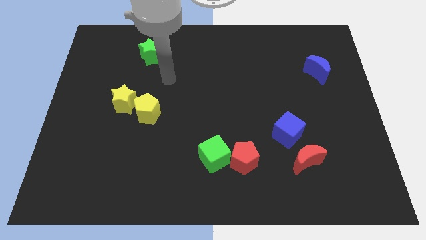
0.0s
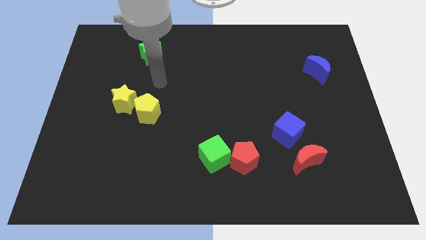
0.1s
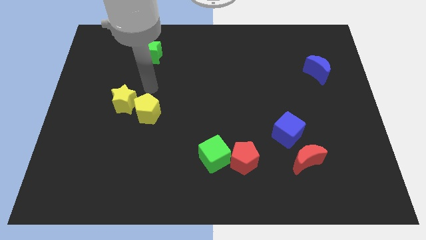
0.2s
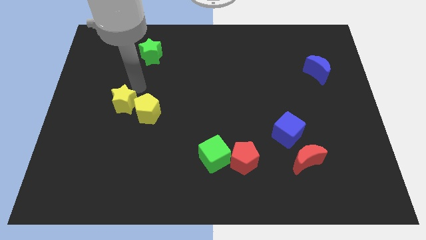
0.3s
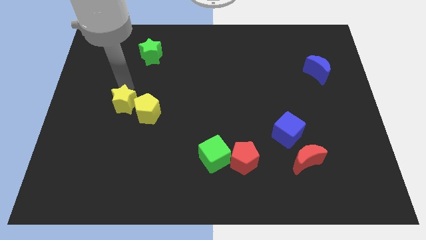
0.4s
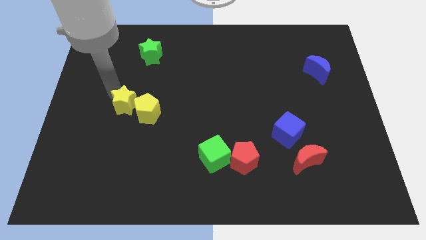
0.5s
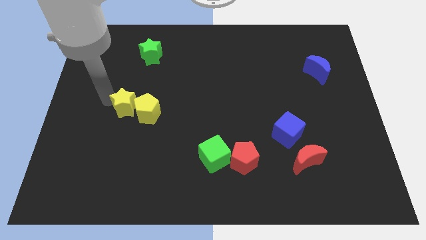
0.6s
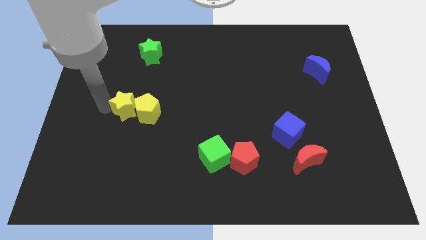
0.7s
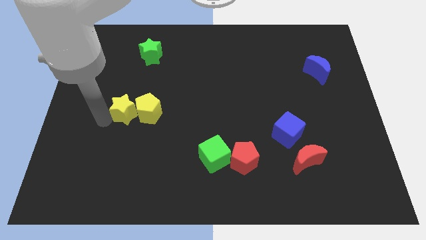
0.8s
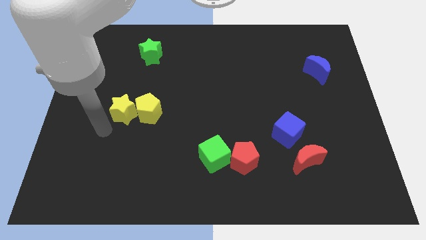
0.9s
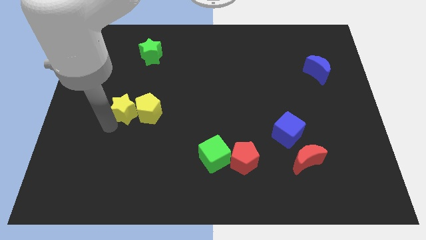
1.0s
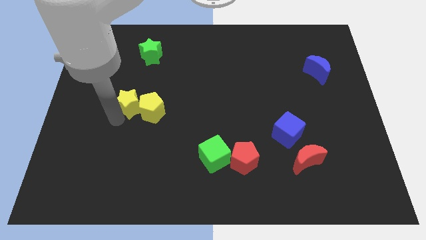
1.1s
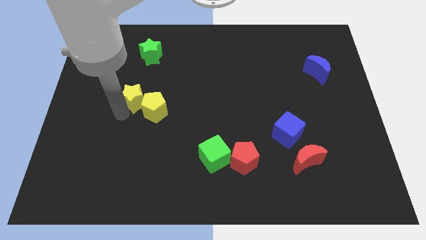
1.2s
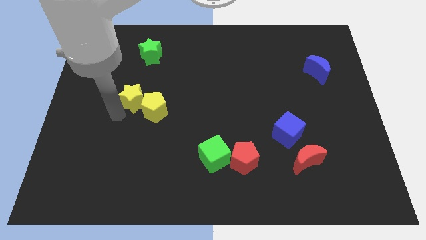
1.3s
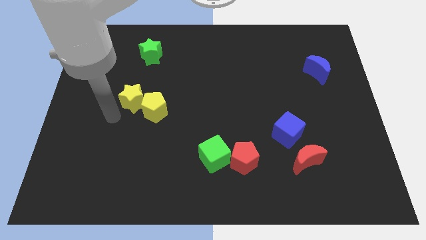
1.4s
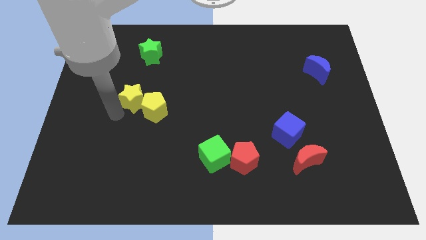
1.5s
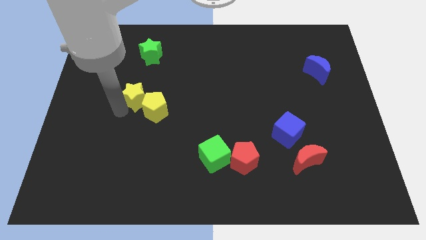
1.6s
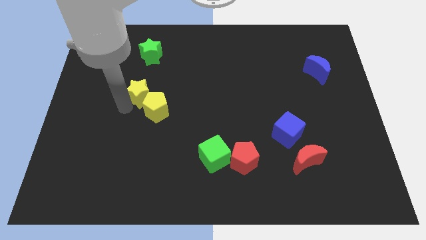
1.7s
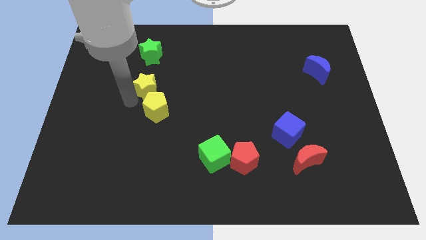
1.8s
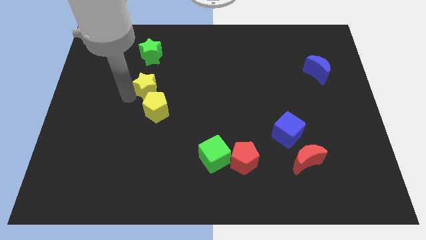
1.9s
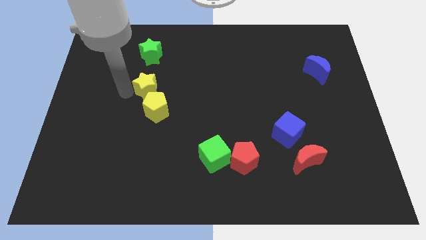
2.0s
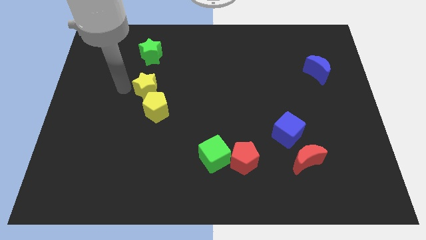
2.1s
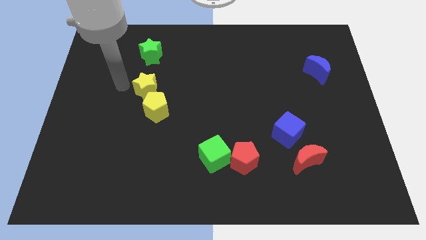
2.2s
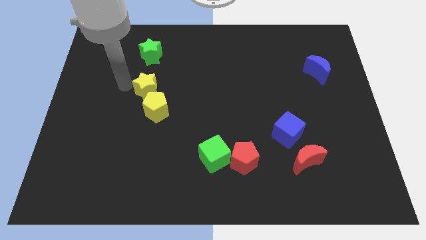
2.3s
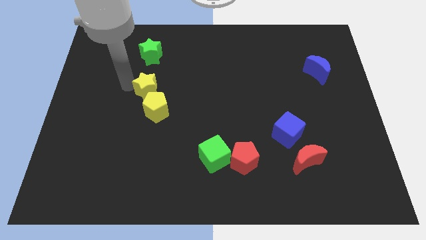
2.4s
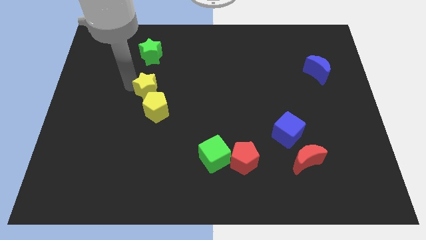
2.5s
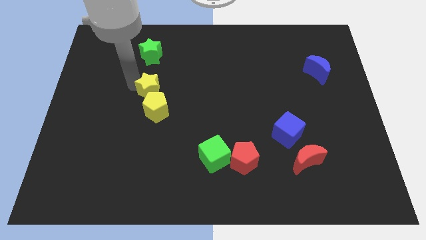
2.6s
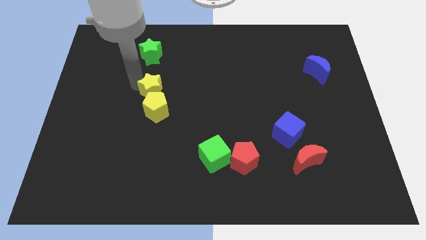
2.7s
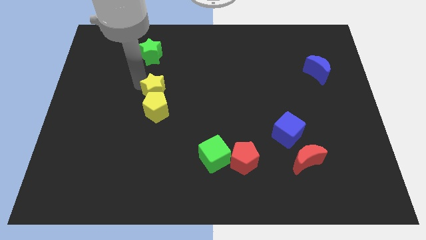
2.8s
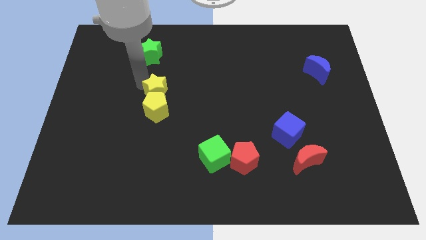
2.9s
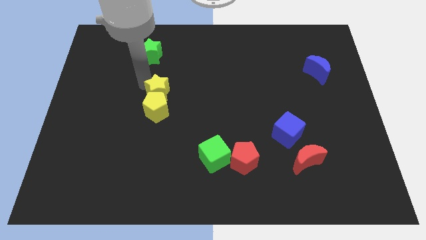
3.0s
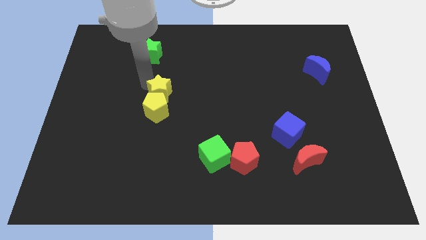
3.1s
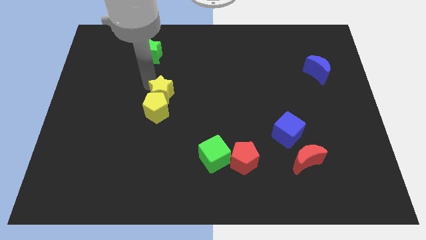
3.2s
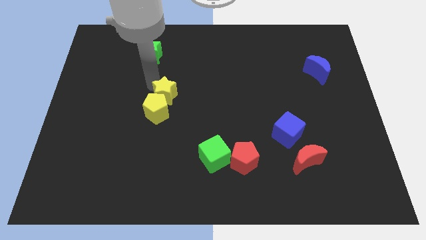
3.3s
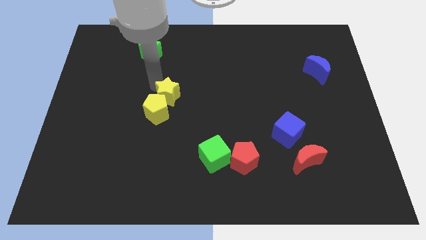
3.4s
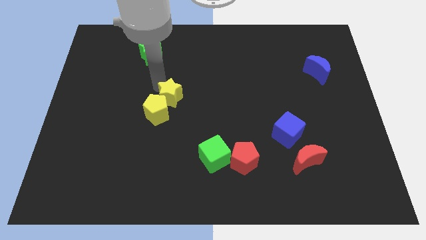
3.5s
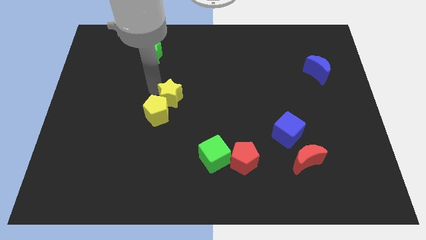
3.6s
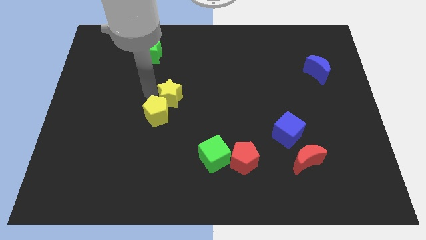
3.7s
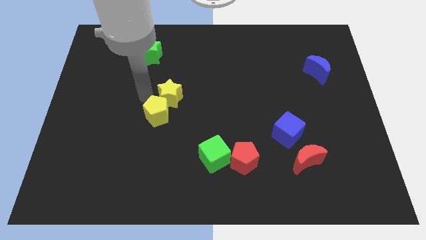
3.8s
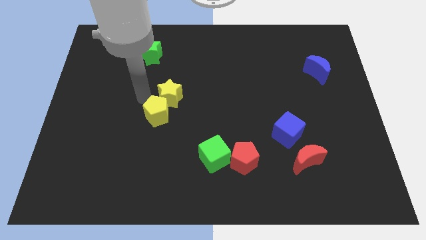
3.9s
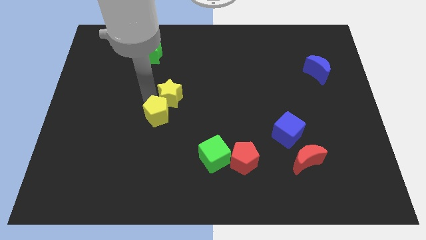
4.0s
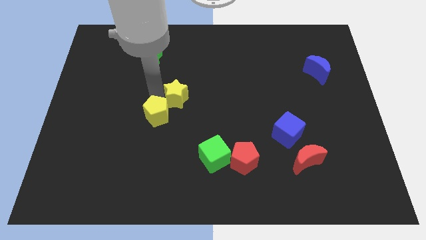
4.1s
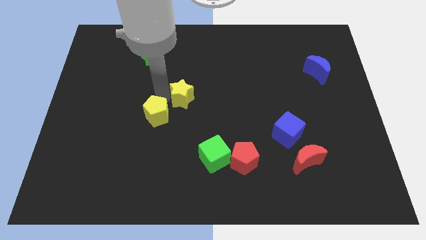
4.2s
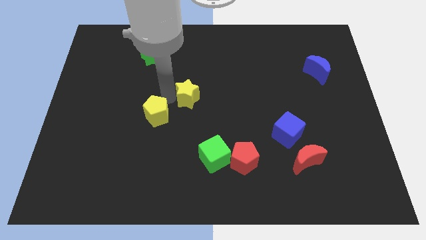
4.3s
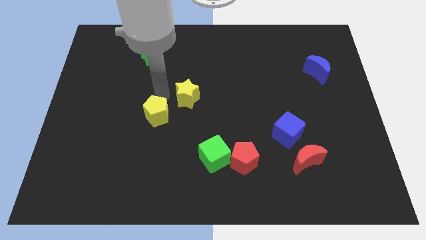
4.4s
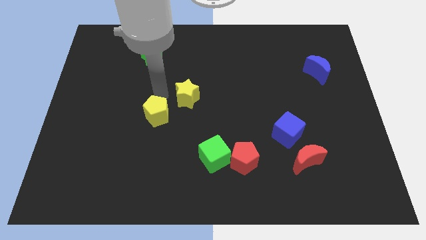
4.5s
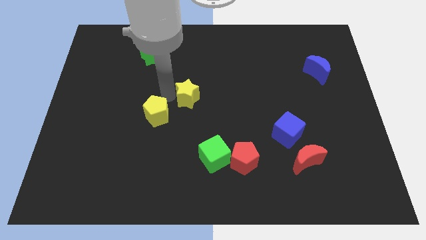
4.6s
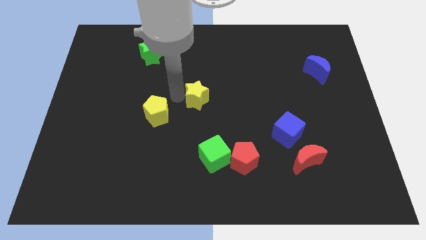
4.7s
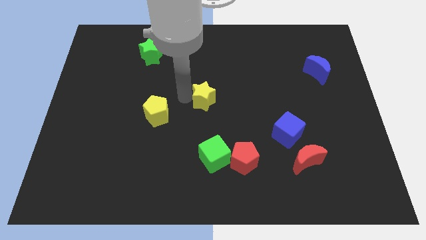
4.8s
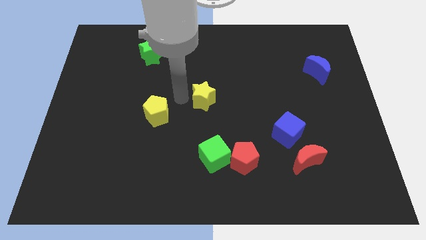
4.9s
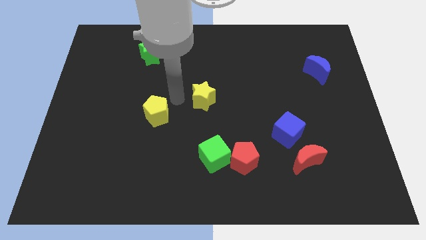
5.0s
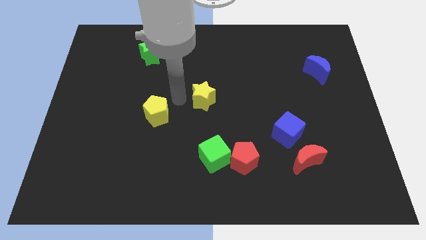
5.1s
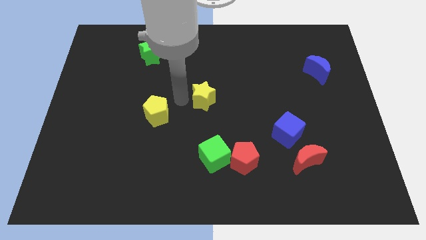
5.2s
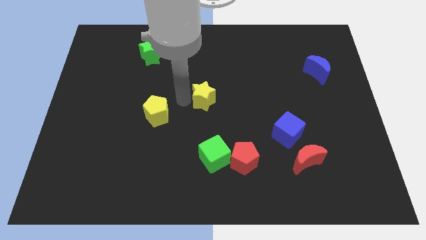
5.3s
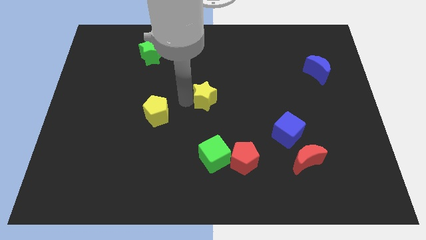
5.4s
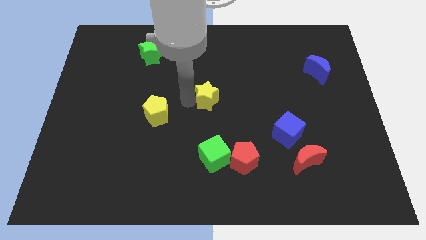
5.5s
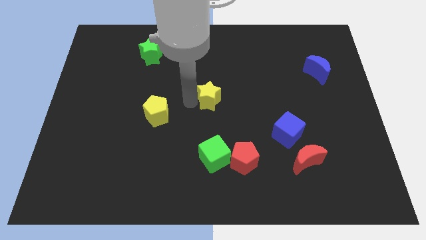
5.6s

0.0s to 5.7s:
slide the yellow star to the right

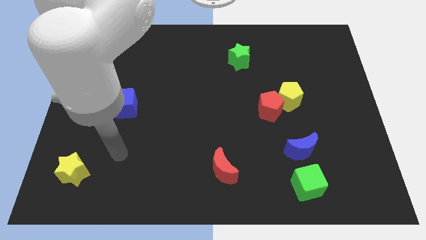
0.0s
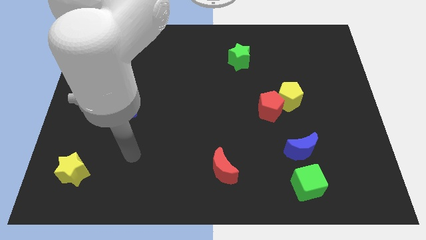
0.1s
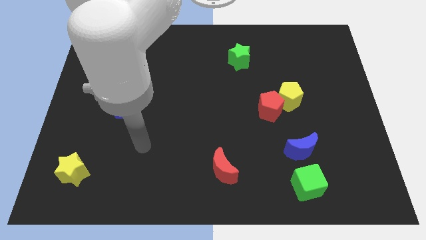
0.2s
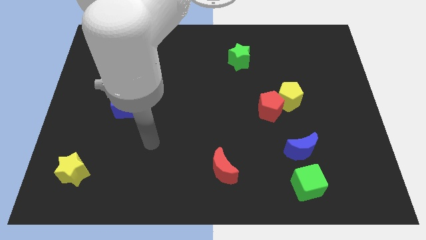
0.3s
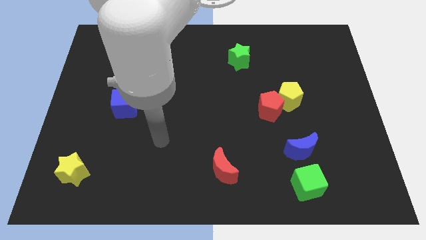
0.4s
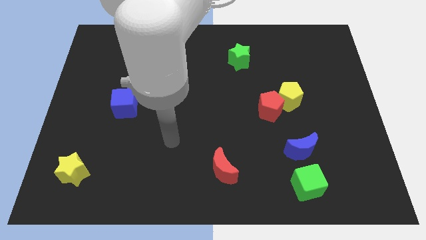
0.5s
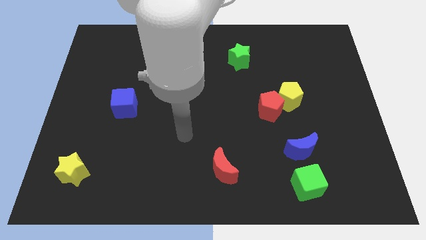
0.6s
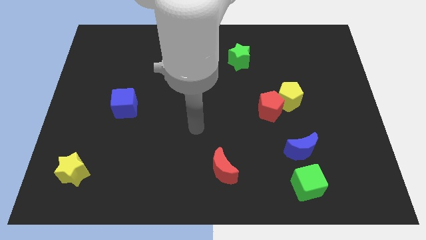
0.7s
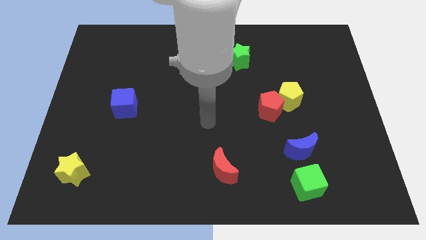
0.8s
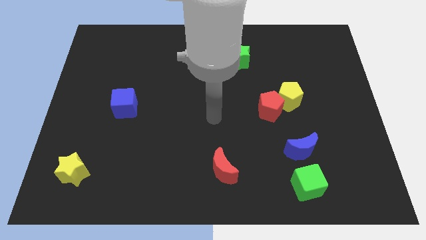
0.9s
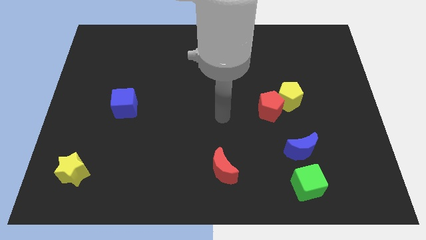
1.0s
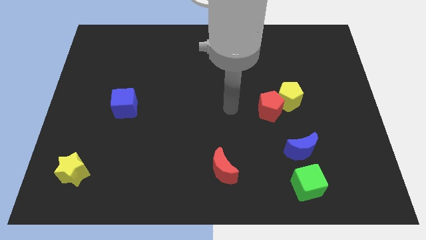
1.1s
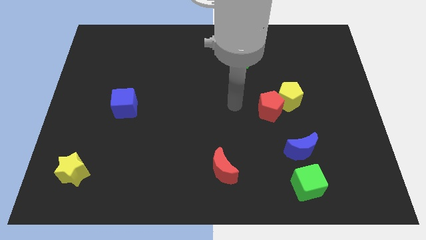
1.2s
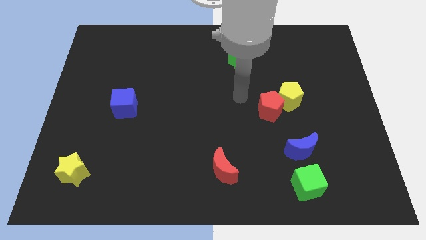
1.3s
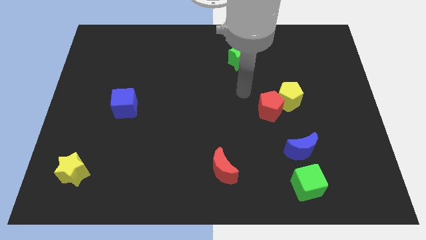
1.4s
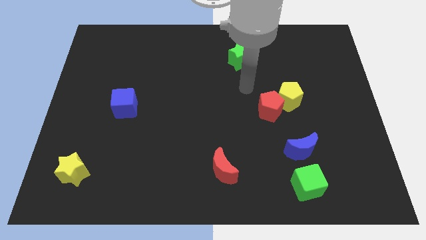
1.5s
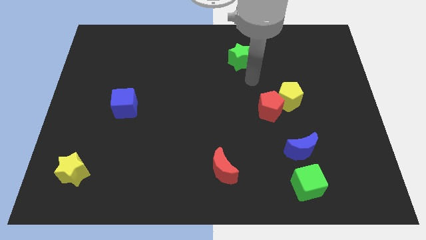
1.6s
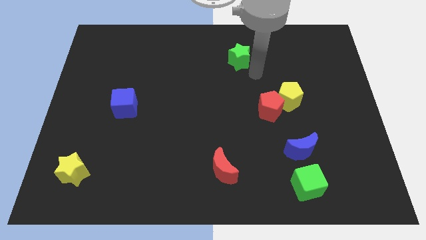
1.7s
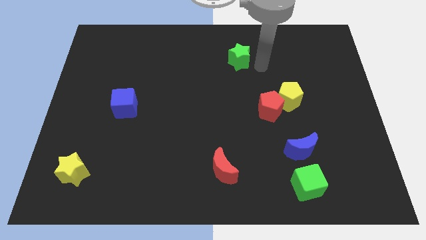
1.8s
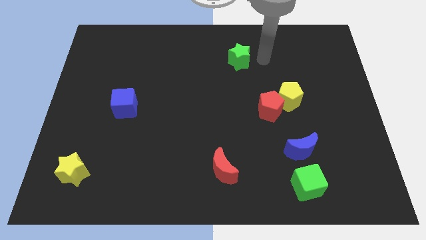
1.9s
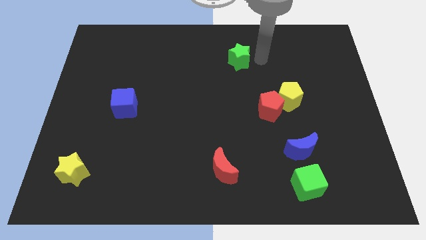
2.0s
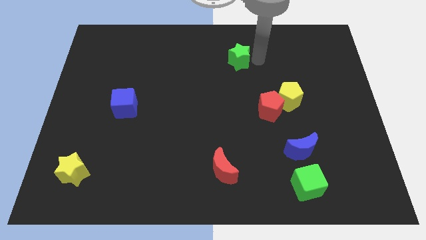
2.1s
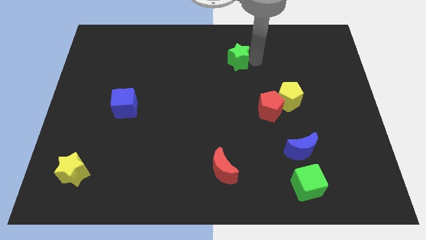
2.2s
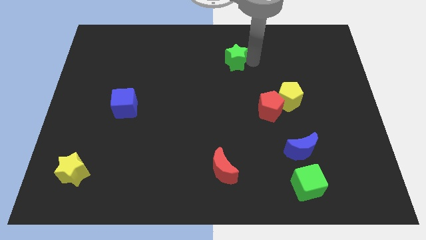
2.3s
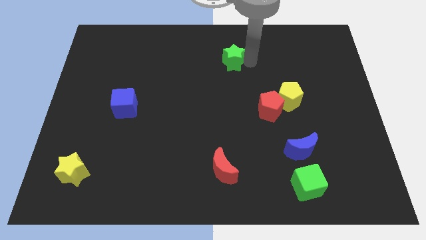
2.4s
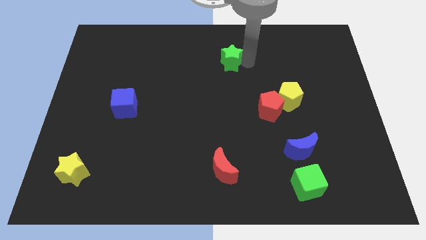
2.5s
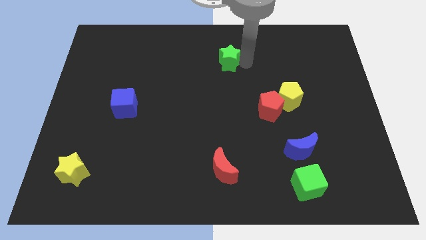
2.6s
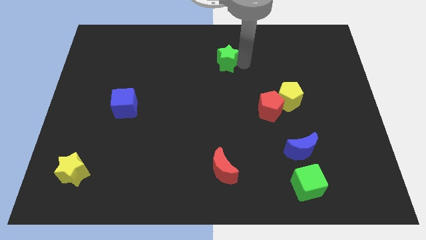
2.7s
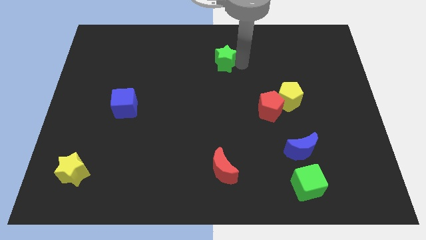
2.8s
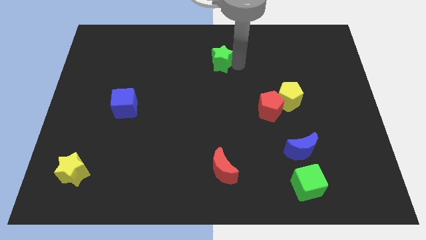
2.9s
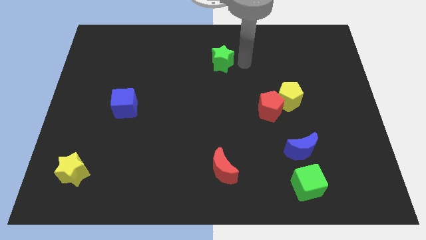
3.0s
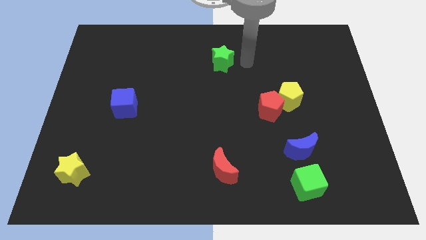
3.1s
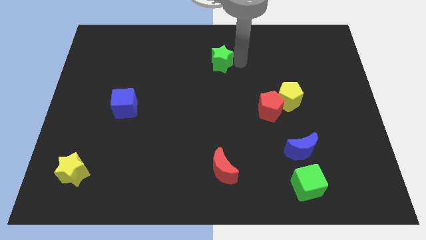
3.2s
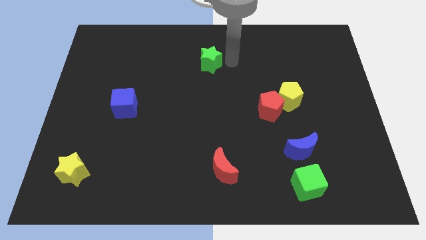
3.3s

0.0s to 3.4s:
slide the green star somewhat to the left
